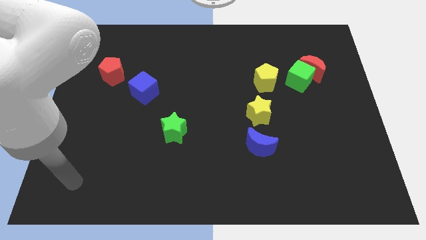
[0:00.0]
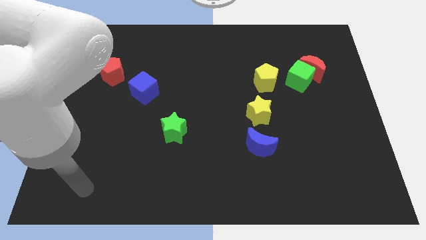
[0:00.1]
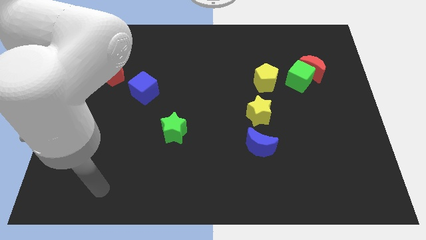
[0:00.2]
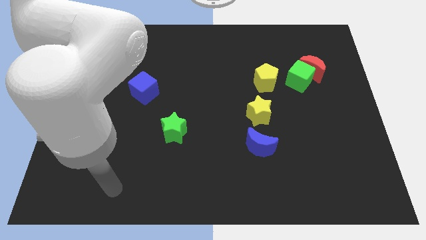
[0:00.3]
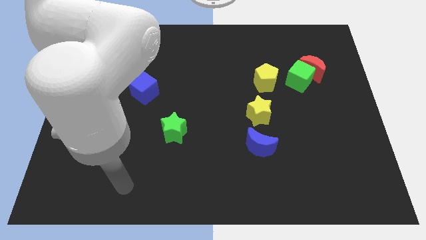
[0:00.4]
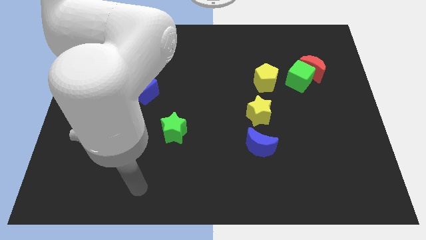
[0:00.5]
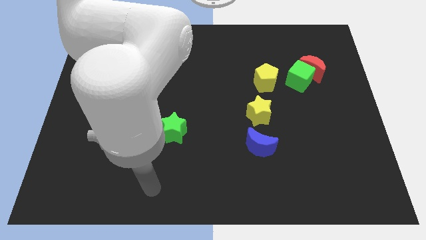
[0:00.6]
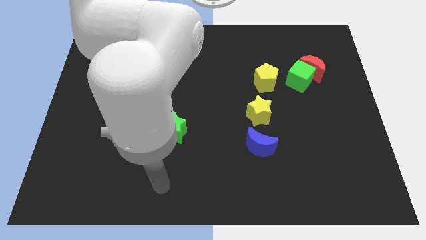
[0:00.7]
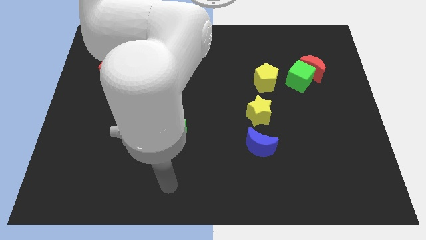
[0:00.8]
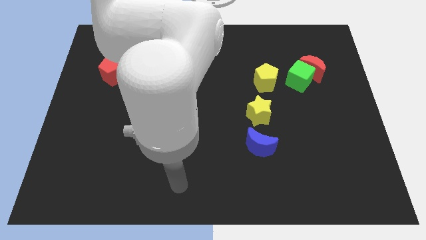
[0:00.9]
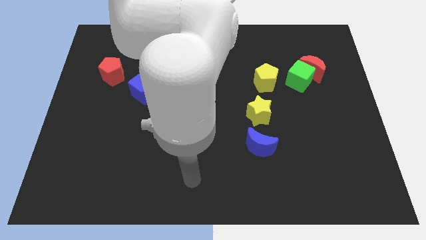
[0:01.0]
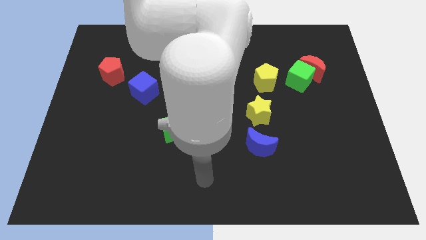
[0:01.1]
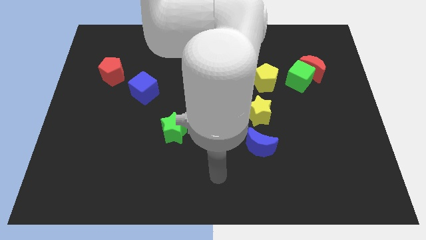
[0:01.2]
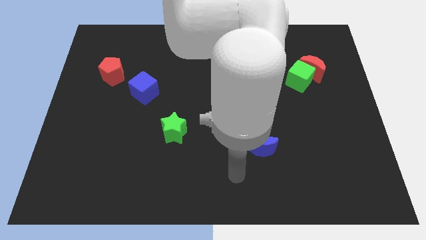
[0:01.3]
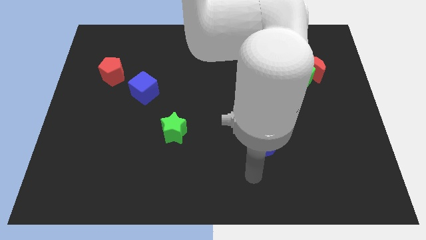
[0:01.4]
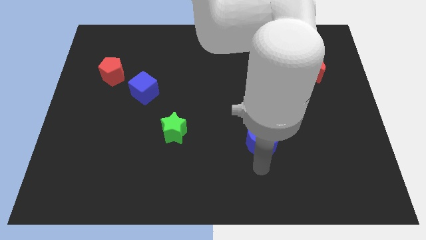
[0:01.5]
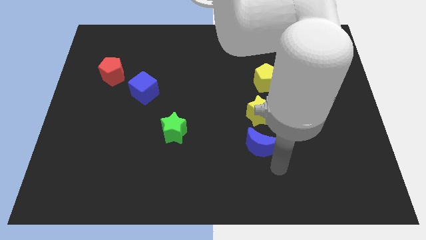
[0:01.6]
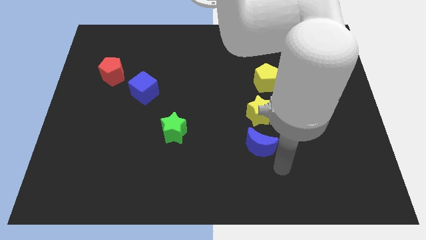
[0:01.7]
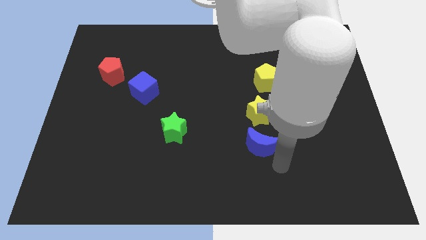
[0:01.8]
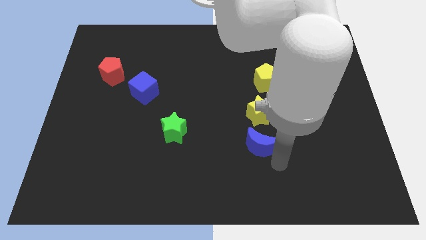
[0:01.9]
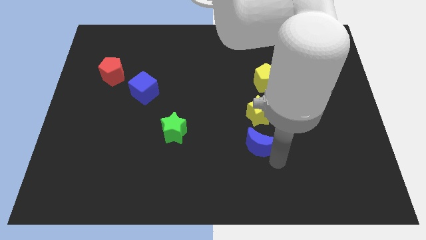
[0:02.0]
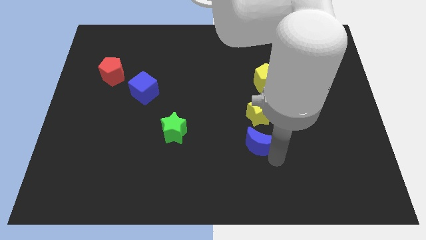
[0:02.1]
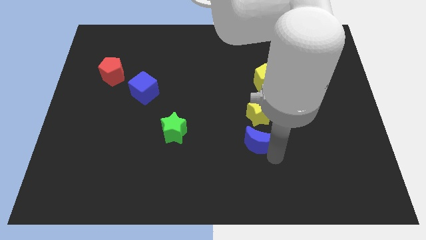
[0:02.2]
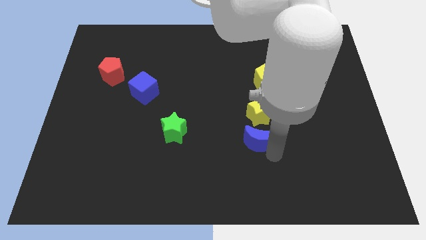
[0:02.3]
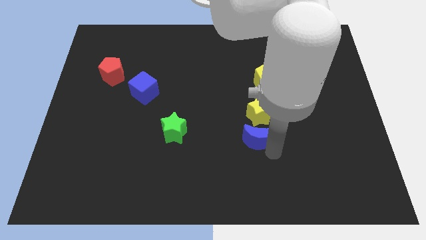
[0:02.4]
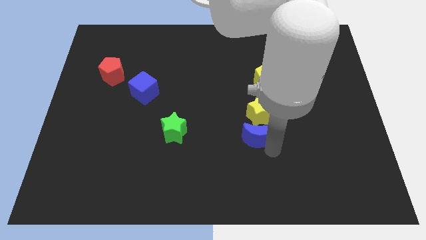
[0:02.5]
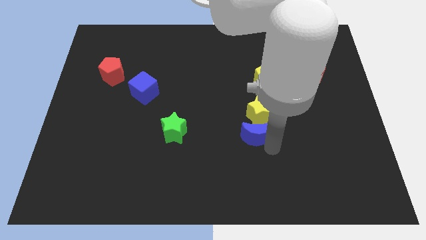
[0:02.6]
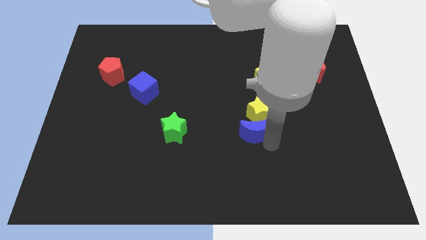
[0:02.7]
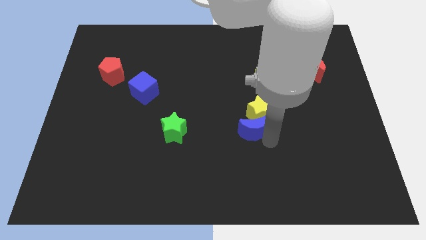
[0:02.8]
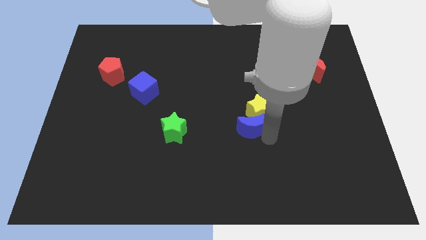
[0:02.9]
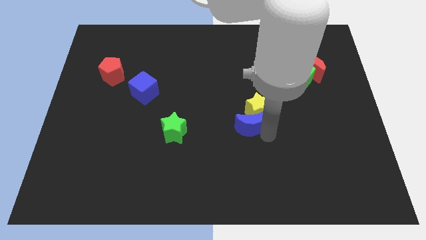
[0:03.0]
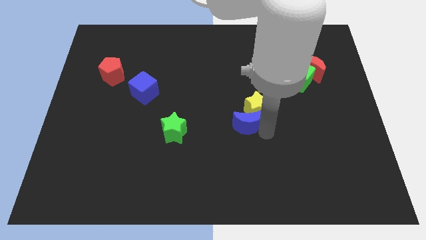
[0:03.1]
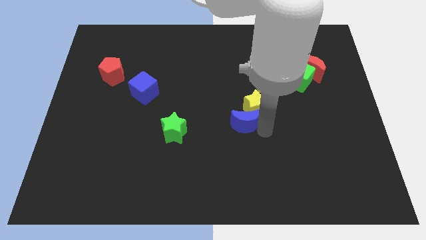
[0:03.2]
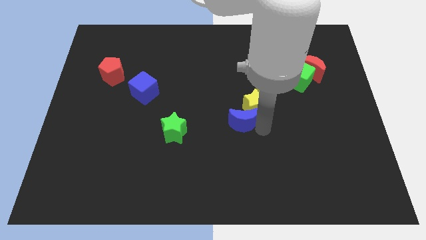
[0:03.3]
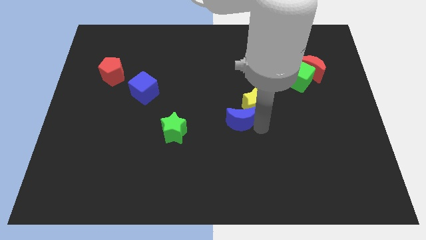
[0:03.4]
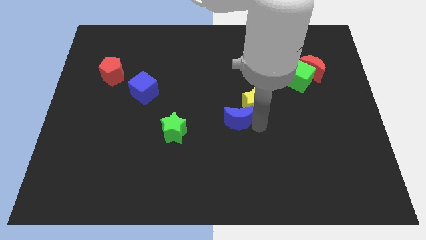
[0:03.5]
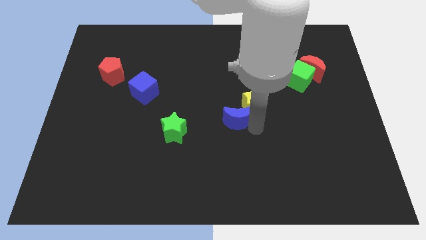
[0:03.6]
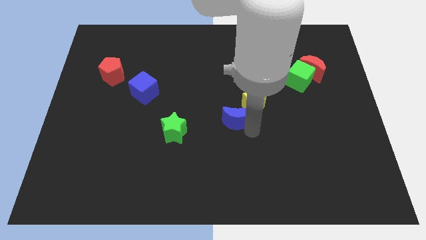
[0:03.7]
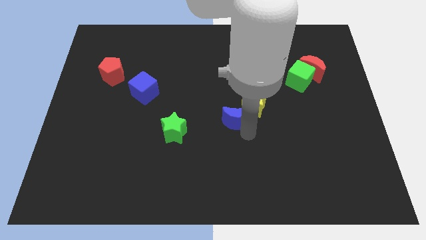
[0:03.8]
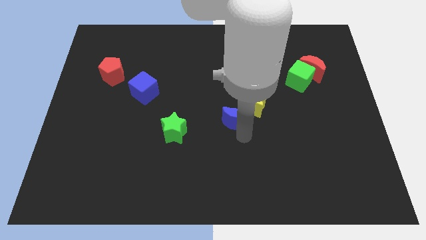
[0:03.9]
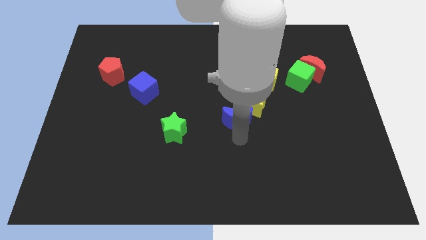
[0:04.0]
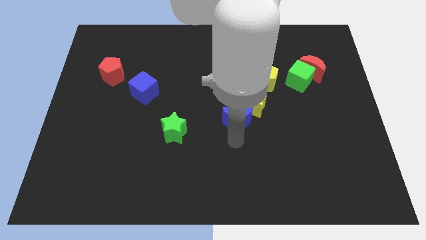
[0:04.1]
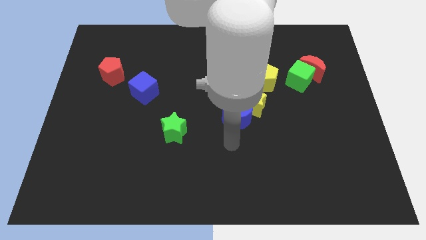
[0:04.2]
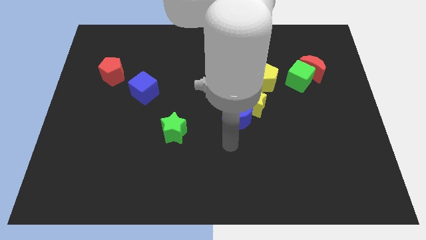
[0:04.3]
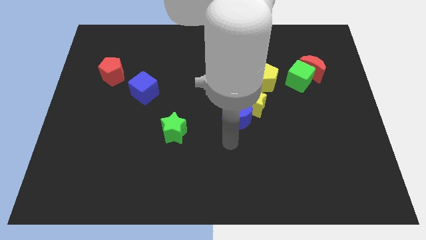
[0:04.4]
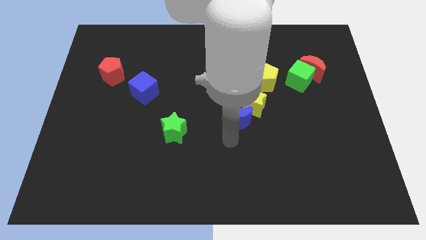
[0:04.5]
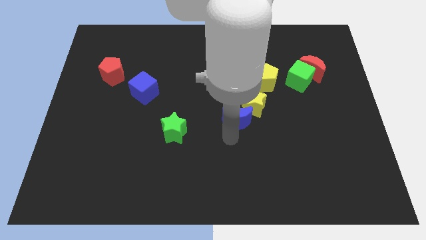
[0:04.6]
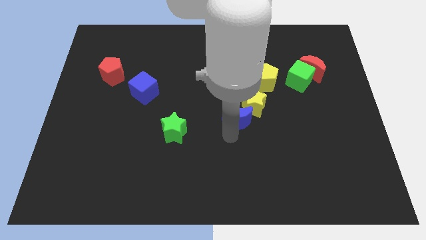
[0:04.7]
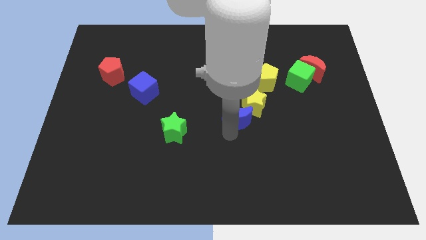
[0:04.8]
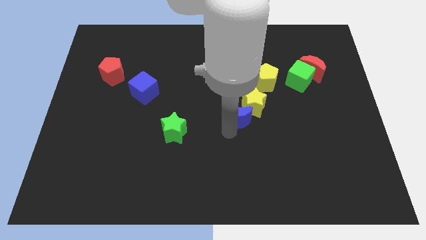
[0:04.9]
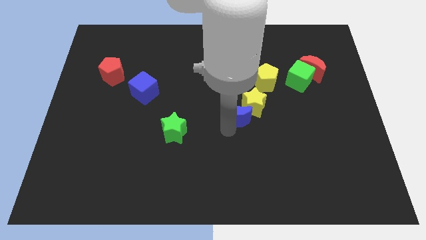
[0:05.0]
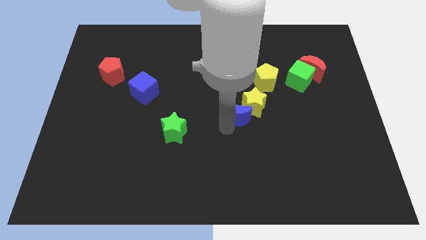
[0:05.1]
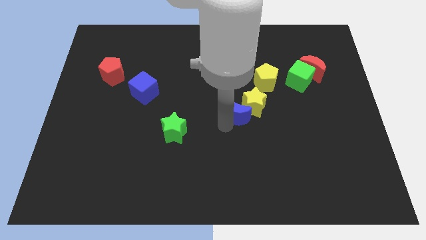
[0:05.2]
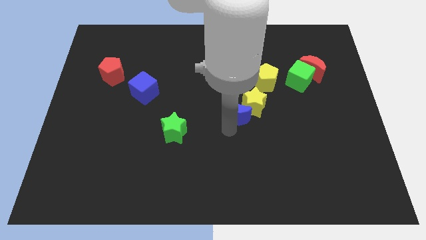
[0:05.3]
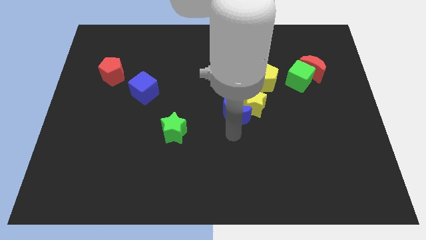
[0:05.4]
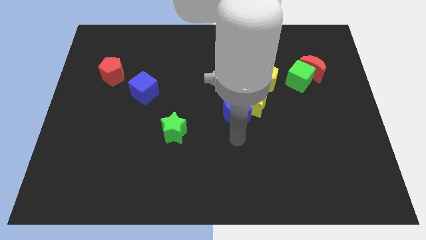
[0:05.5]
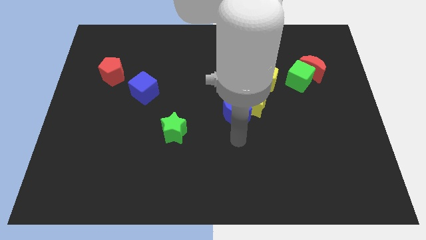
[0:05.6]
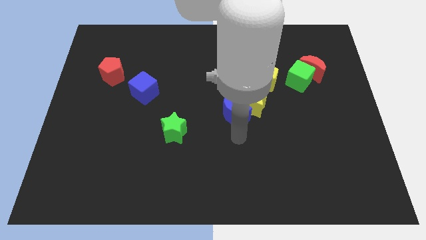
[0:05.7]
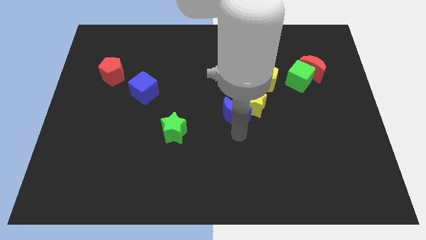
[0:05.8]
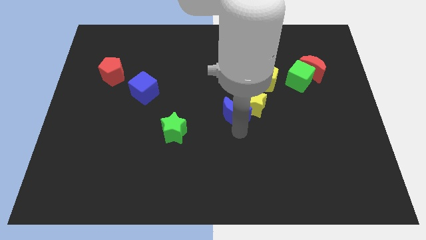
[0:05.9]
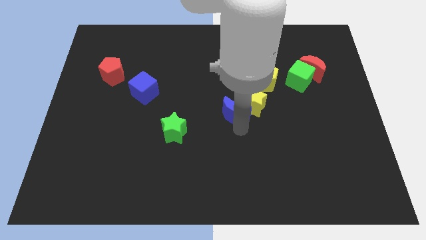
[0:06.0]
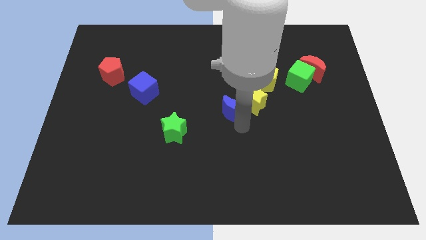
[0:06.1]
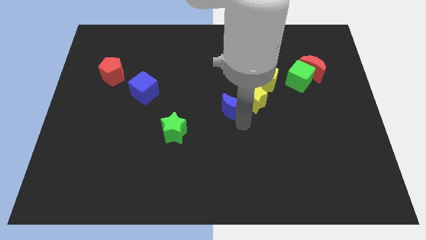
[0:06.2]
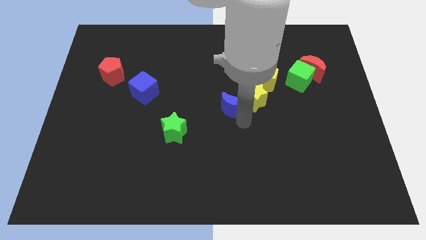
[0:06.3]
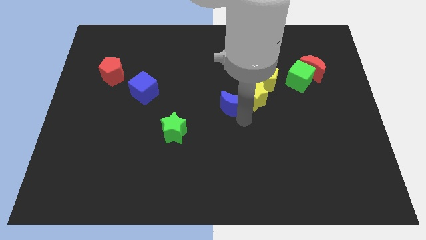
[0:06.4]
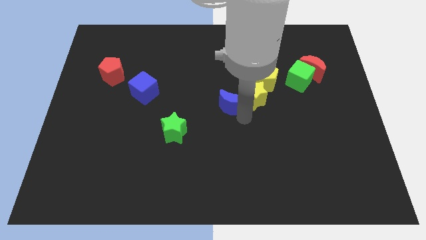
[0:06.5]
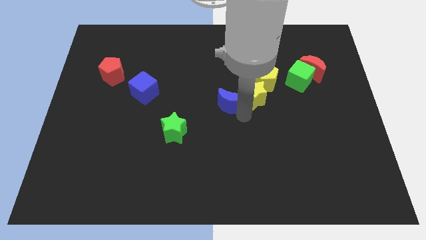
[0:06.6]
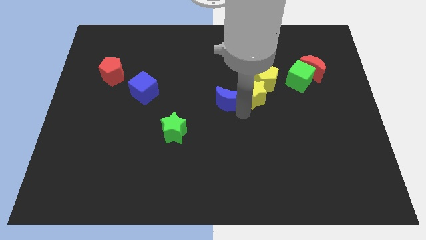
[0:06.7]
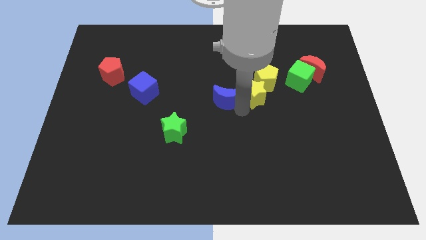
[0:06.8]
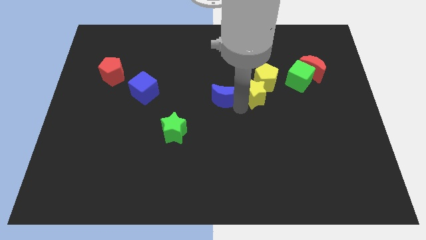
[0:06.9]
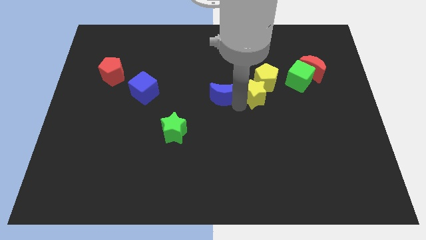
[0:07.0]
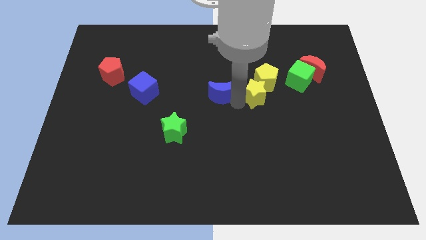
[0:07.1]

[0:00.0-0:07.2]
push the blue moon to the left of the yellow pentagon
